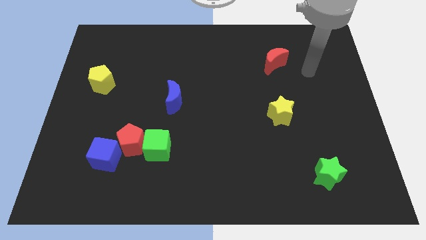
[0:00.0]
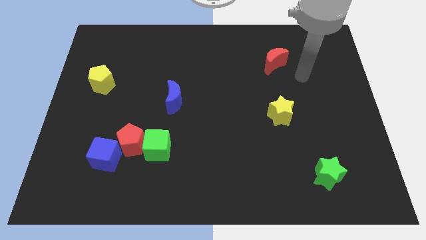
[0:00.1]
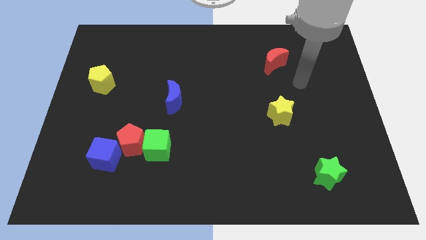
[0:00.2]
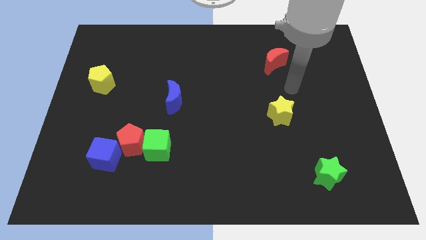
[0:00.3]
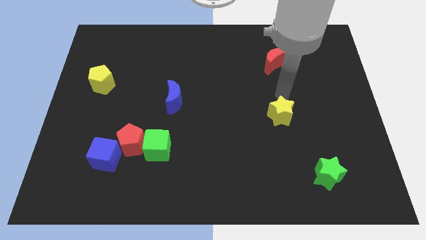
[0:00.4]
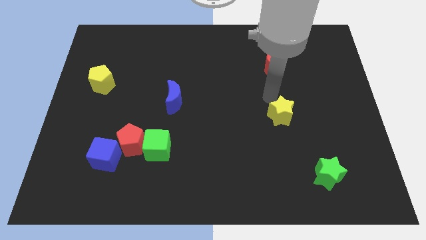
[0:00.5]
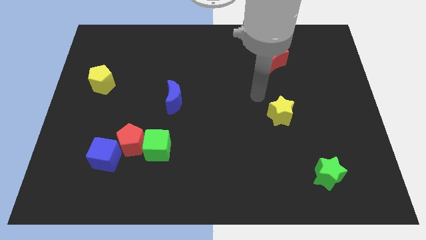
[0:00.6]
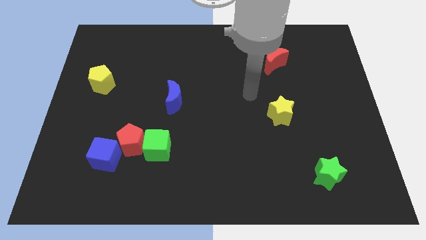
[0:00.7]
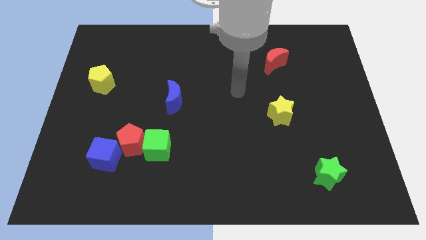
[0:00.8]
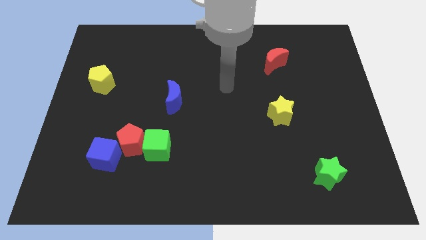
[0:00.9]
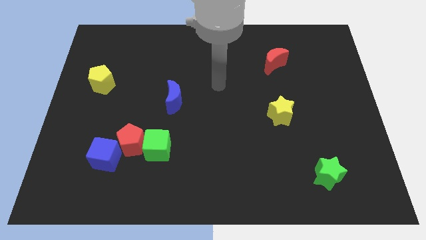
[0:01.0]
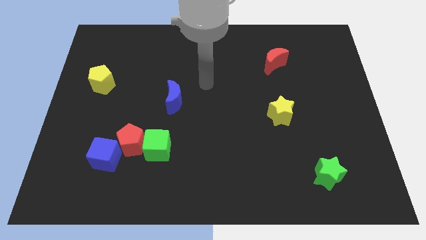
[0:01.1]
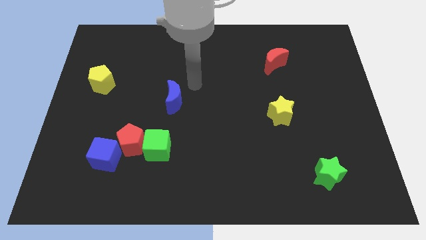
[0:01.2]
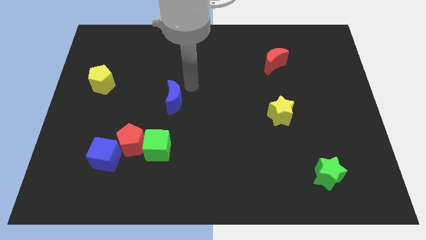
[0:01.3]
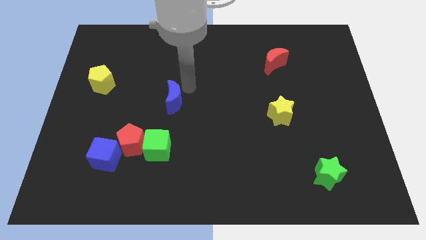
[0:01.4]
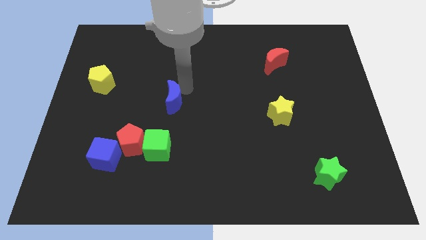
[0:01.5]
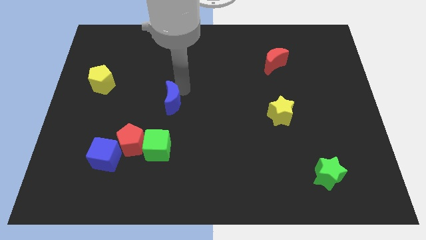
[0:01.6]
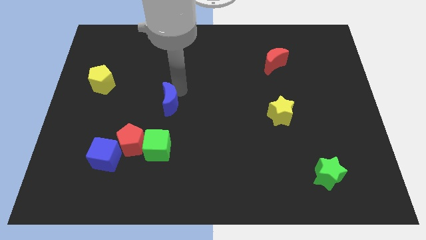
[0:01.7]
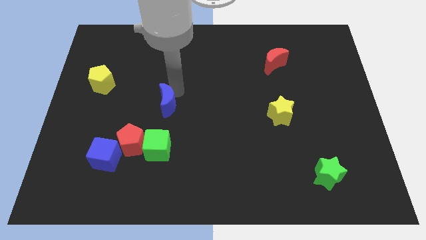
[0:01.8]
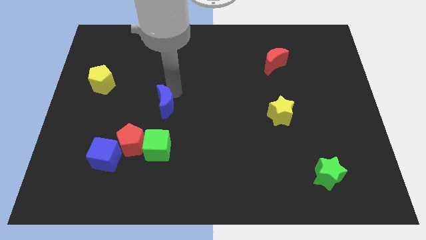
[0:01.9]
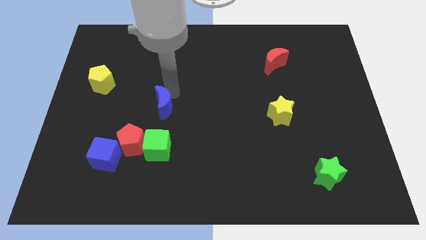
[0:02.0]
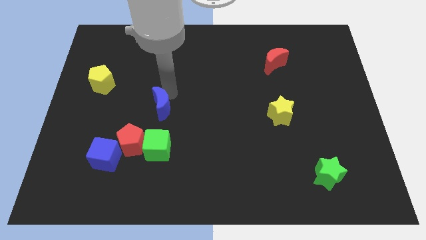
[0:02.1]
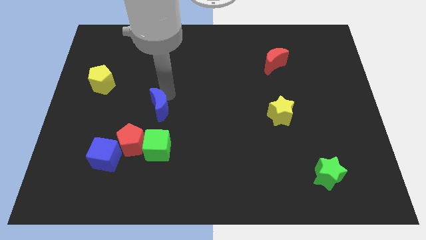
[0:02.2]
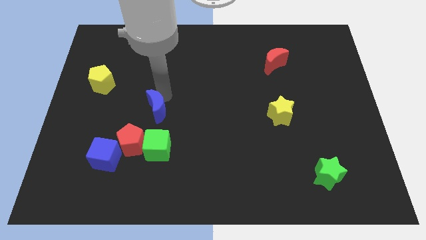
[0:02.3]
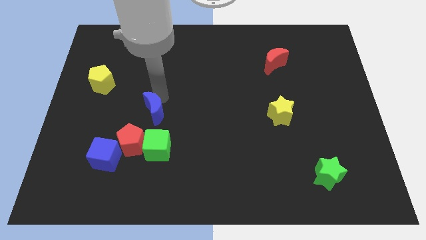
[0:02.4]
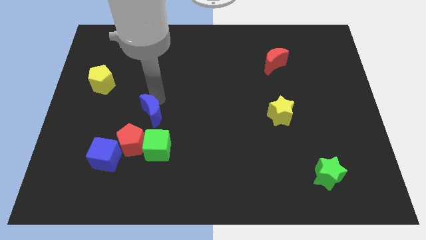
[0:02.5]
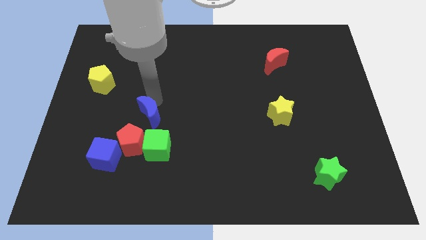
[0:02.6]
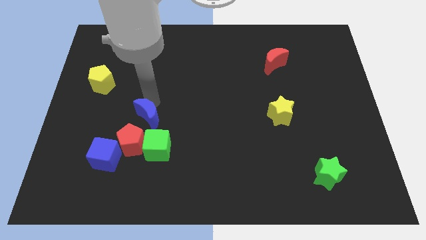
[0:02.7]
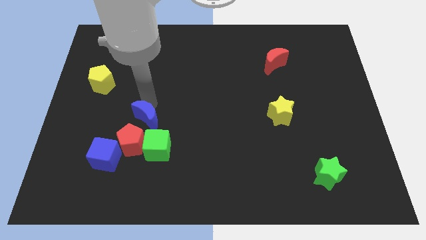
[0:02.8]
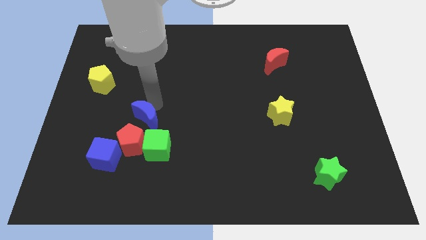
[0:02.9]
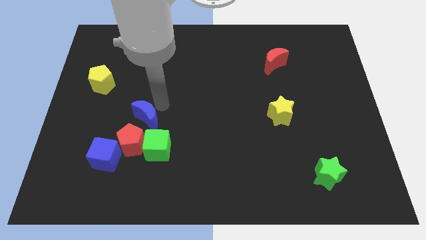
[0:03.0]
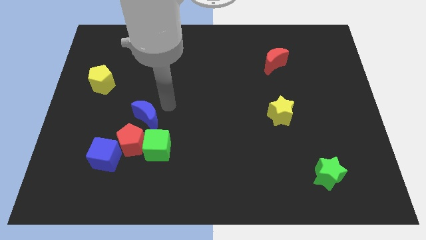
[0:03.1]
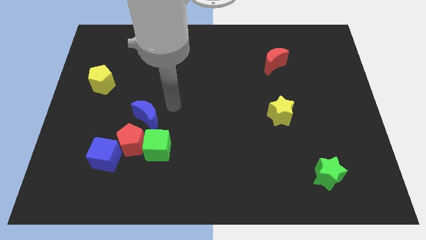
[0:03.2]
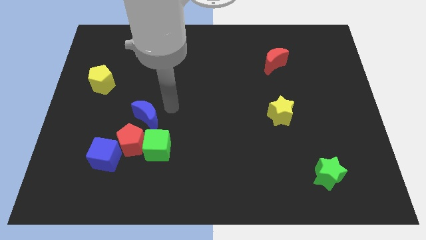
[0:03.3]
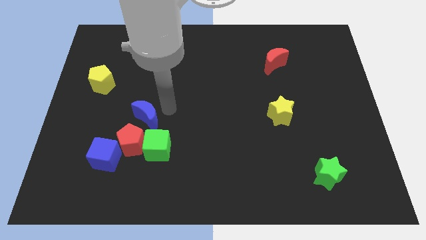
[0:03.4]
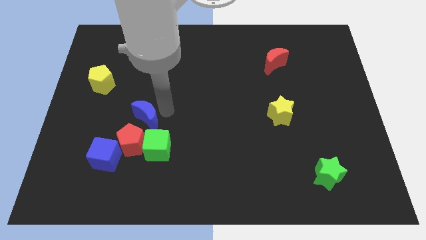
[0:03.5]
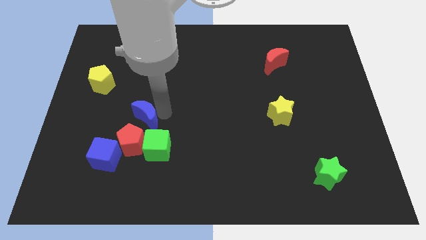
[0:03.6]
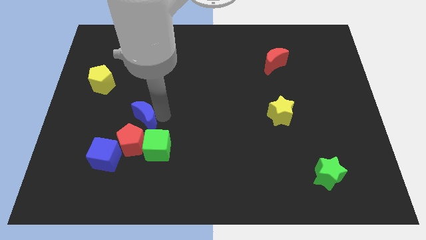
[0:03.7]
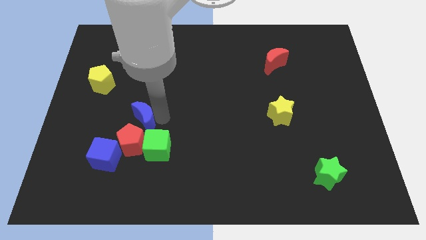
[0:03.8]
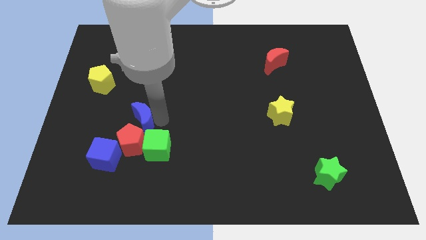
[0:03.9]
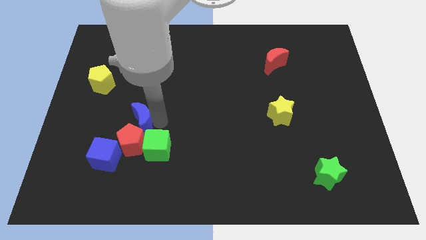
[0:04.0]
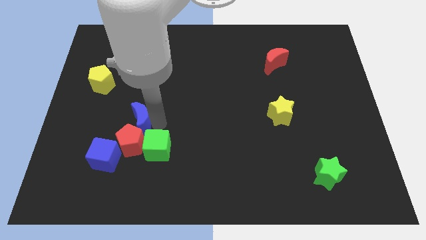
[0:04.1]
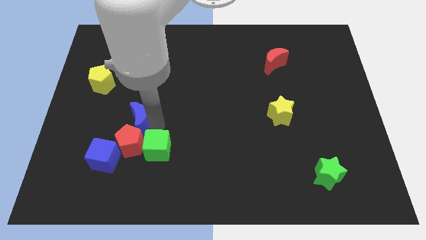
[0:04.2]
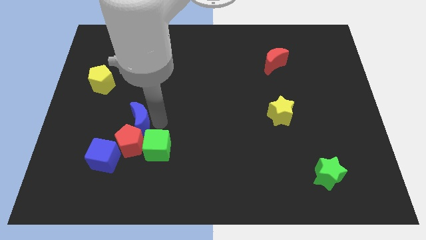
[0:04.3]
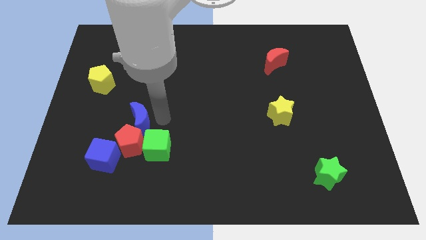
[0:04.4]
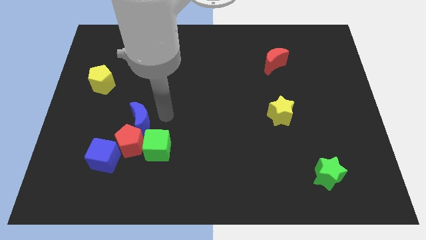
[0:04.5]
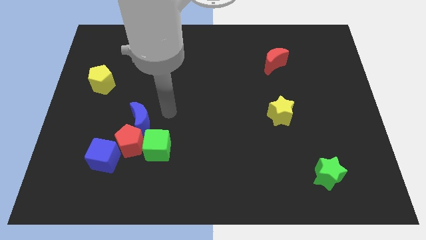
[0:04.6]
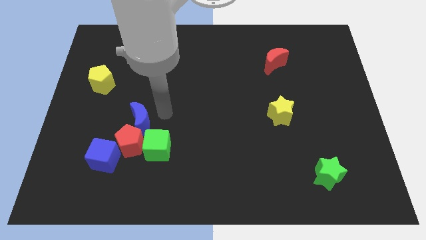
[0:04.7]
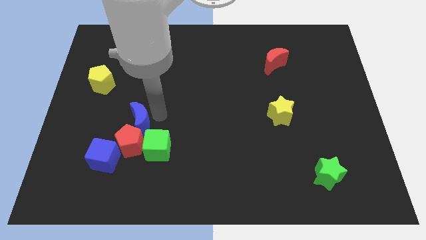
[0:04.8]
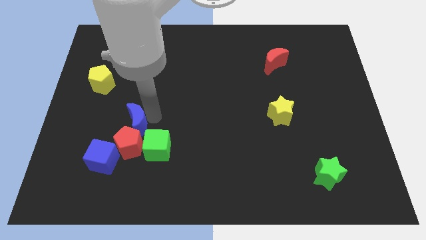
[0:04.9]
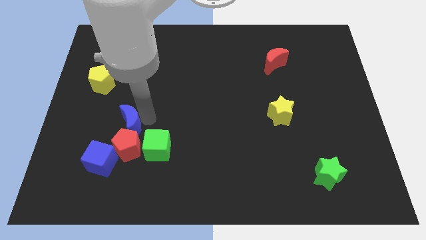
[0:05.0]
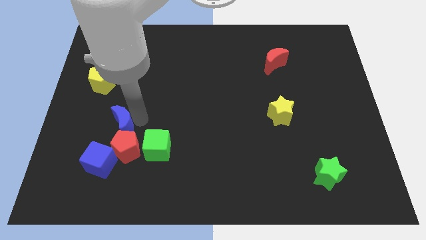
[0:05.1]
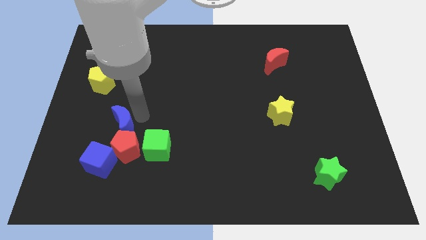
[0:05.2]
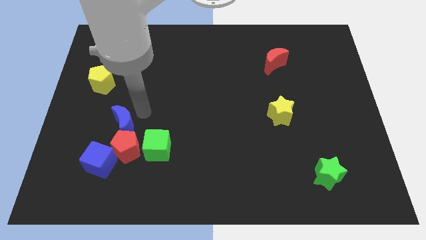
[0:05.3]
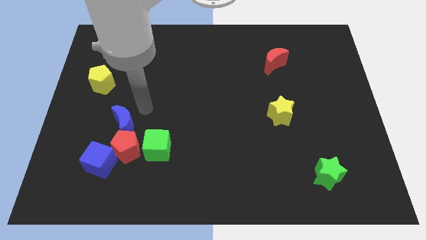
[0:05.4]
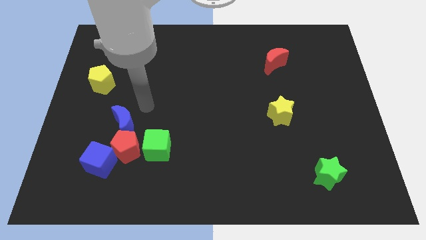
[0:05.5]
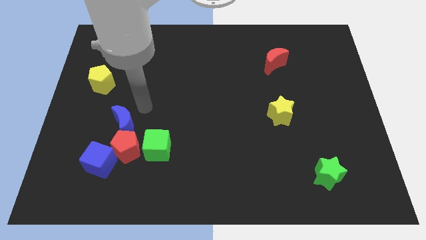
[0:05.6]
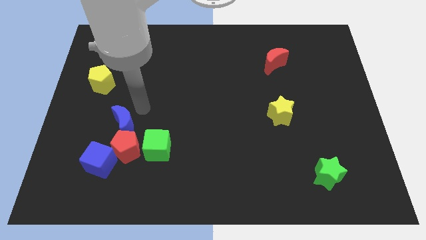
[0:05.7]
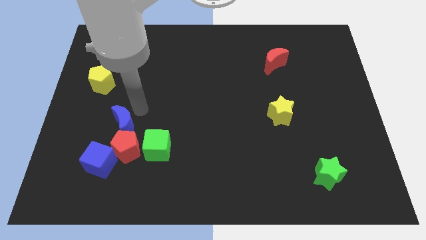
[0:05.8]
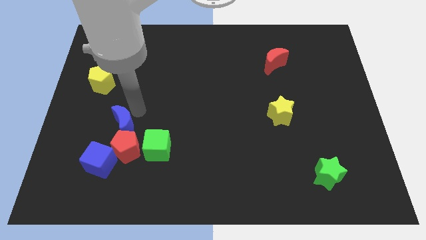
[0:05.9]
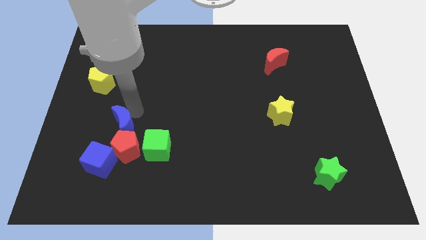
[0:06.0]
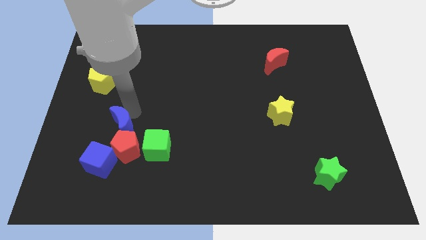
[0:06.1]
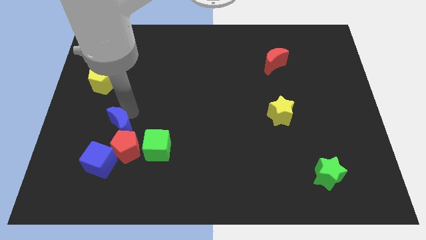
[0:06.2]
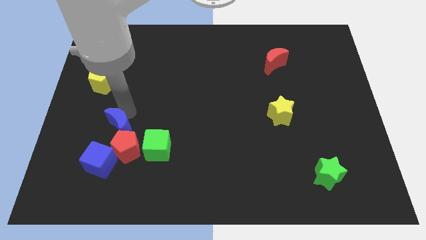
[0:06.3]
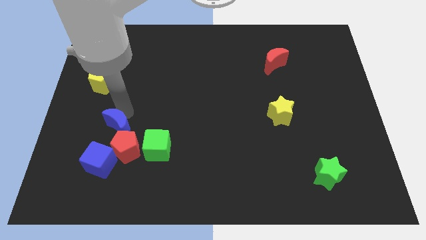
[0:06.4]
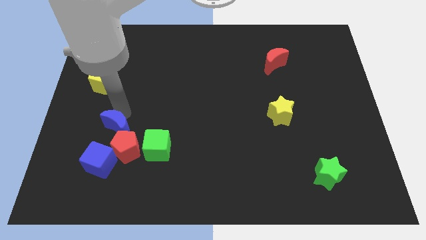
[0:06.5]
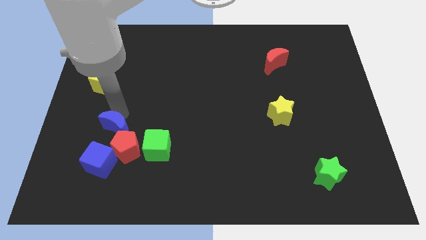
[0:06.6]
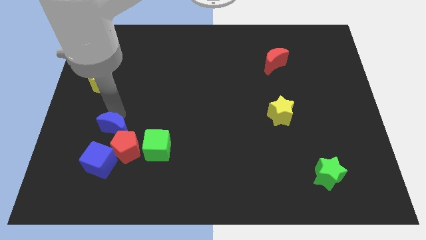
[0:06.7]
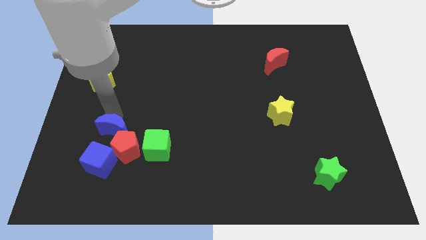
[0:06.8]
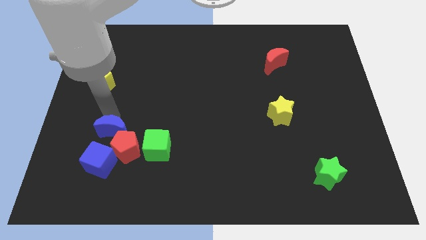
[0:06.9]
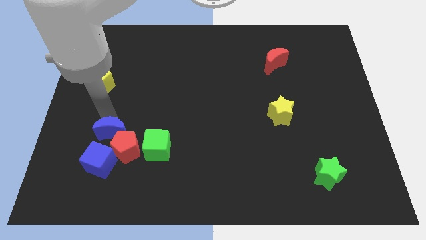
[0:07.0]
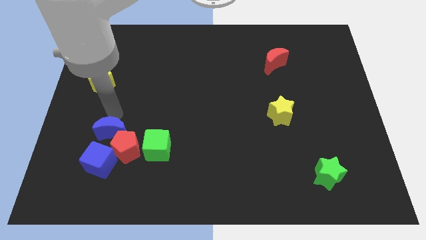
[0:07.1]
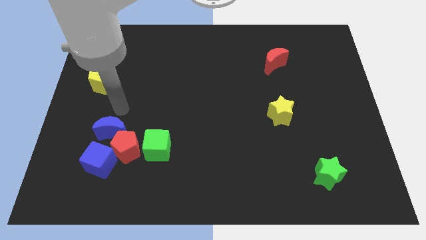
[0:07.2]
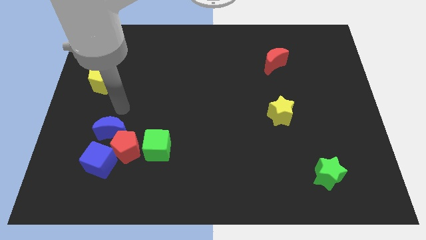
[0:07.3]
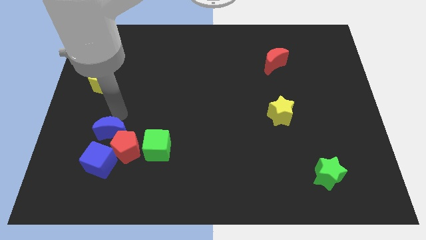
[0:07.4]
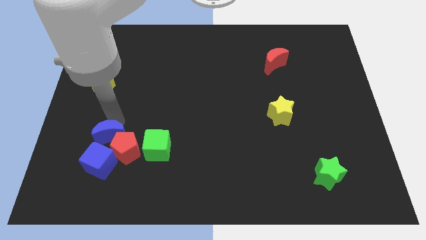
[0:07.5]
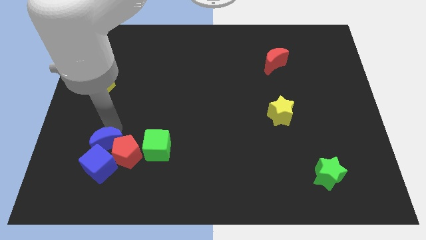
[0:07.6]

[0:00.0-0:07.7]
push the blue moon close to the blue cube
